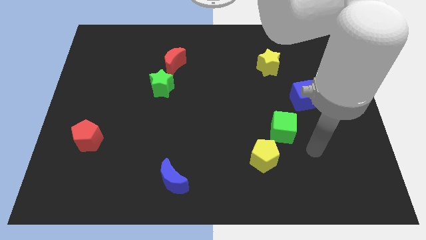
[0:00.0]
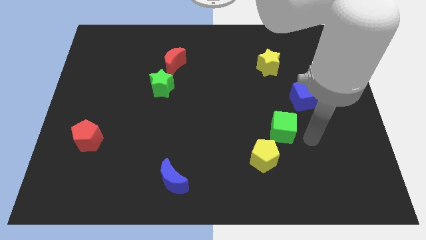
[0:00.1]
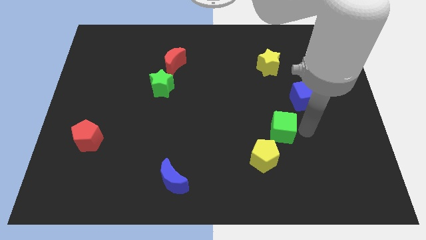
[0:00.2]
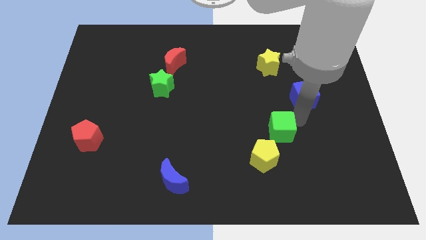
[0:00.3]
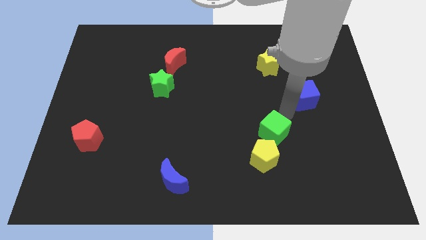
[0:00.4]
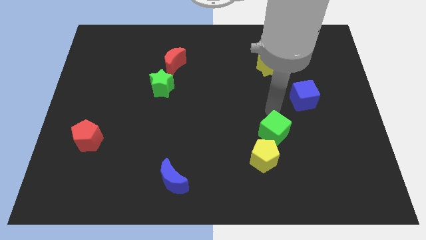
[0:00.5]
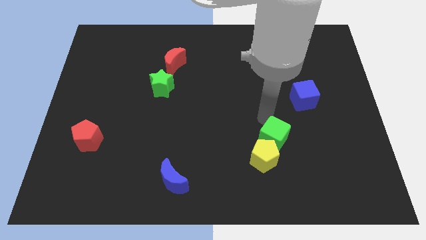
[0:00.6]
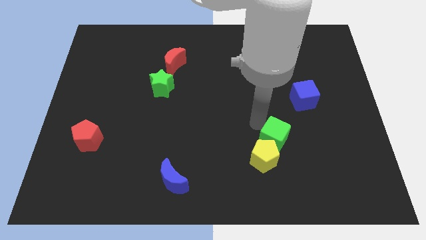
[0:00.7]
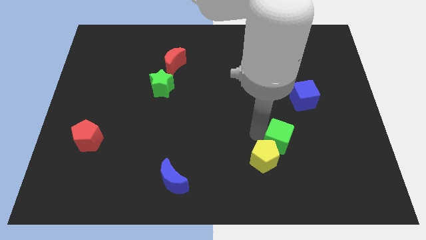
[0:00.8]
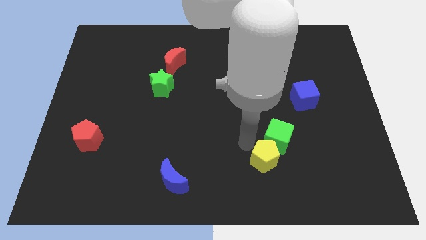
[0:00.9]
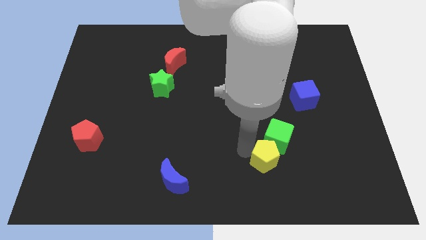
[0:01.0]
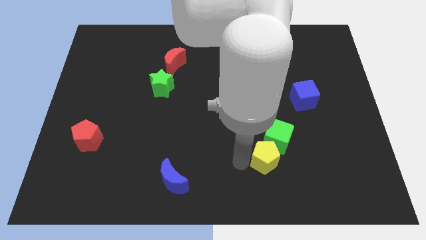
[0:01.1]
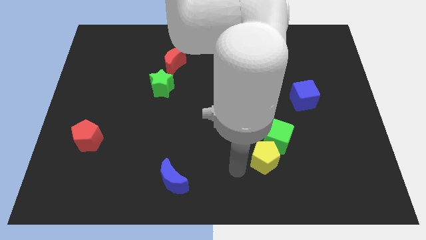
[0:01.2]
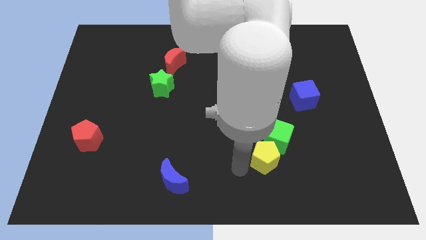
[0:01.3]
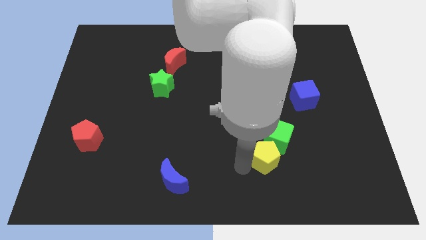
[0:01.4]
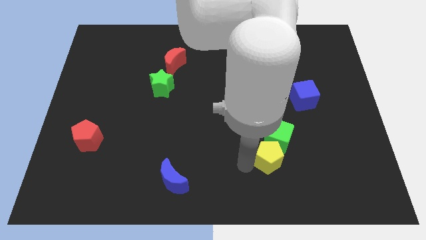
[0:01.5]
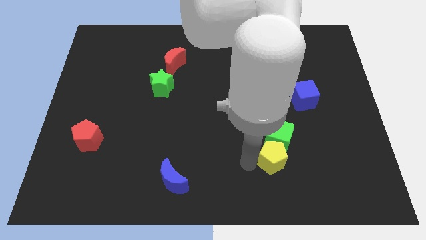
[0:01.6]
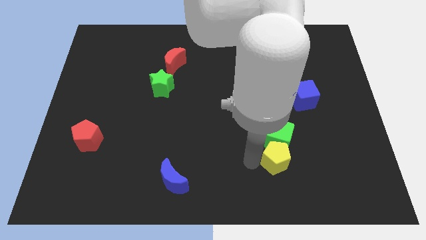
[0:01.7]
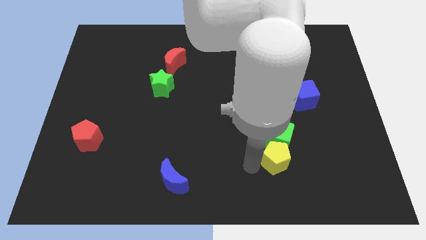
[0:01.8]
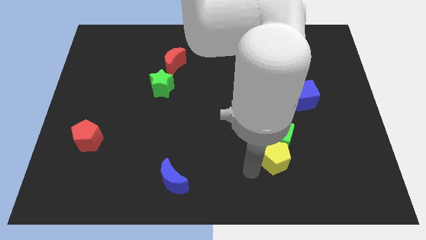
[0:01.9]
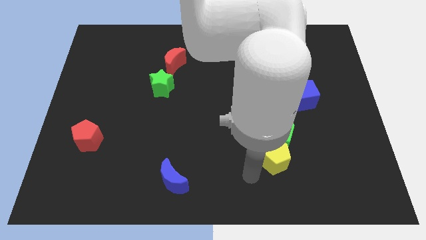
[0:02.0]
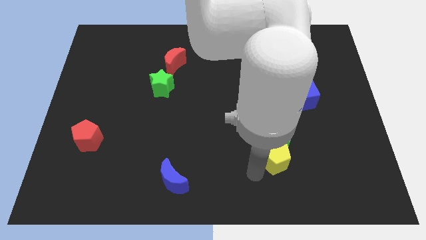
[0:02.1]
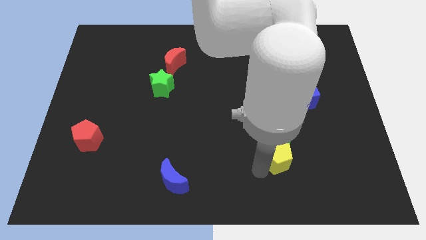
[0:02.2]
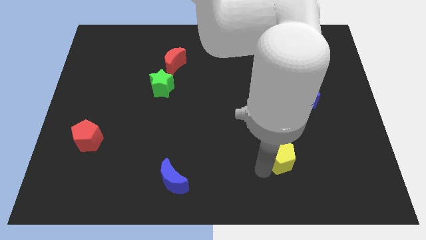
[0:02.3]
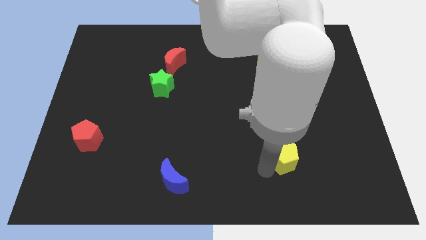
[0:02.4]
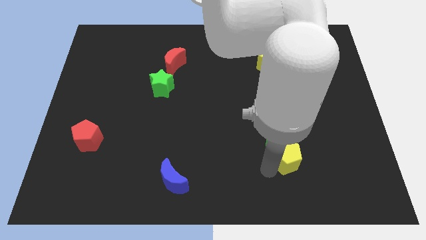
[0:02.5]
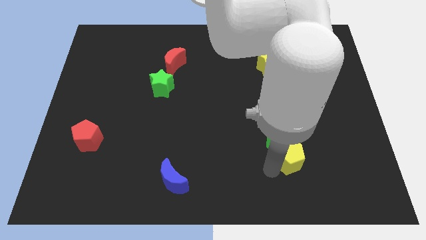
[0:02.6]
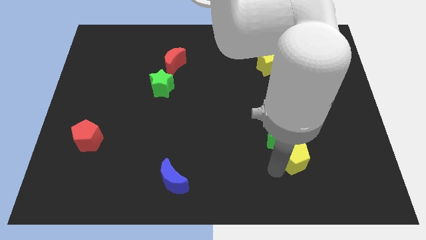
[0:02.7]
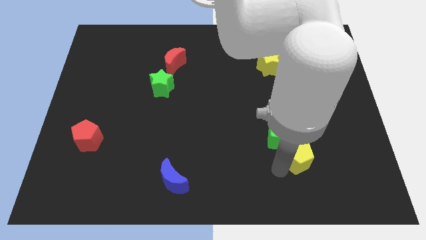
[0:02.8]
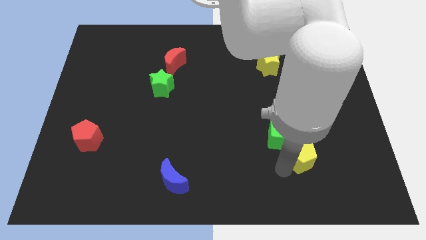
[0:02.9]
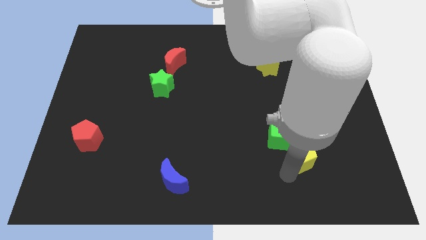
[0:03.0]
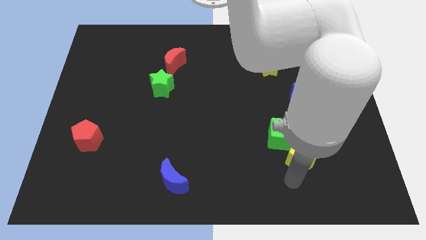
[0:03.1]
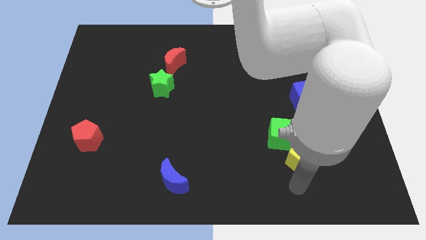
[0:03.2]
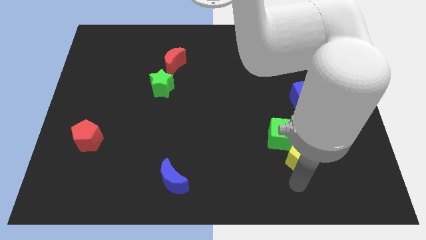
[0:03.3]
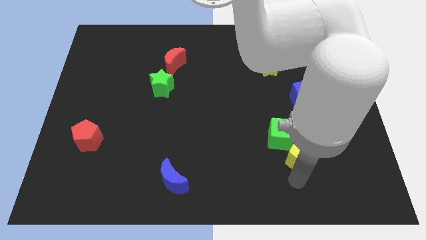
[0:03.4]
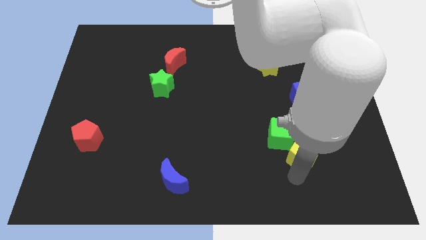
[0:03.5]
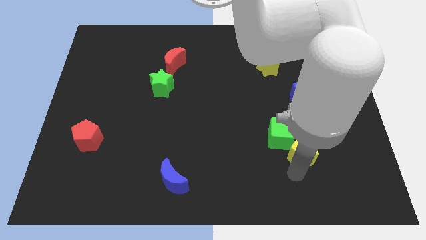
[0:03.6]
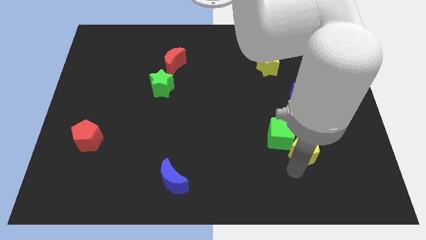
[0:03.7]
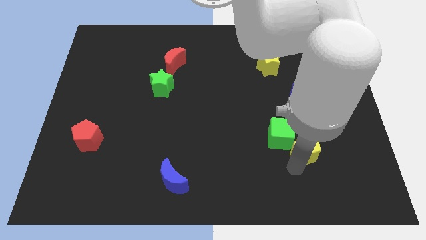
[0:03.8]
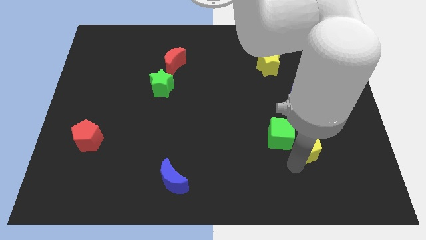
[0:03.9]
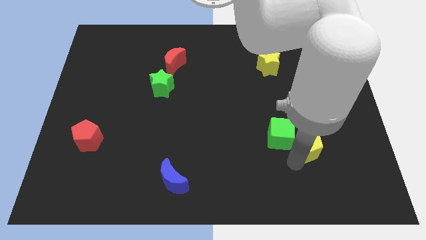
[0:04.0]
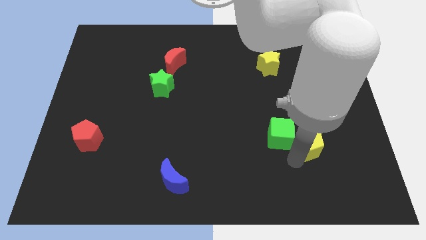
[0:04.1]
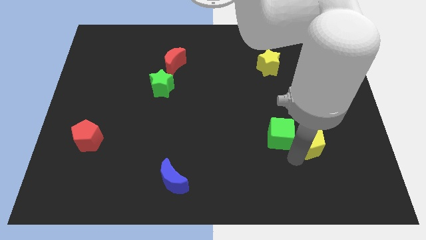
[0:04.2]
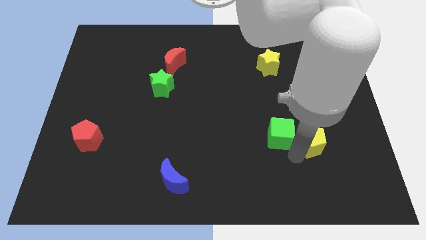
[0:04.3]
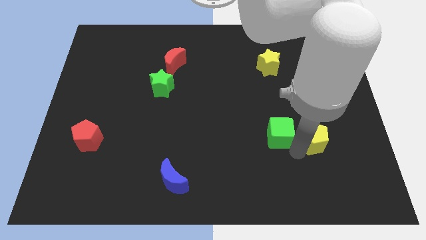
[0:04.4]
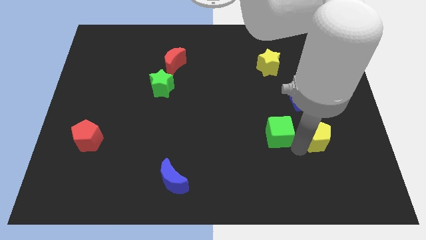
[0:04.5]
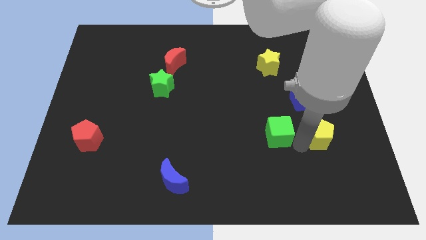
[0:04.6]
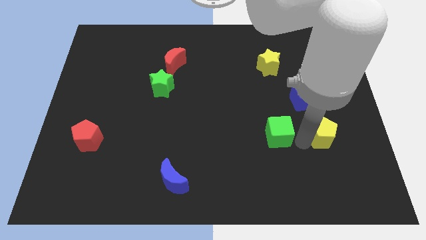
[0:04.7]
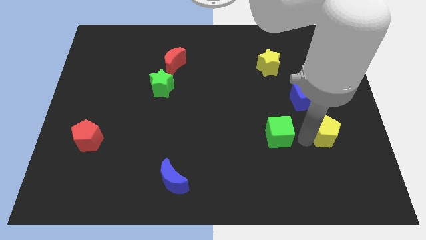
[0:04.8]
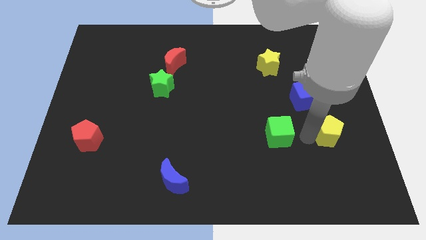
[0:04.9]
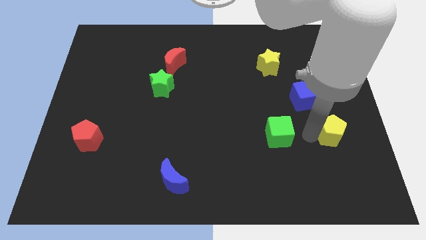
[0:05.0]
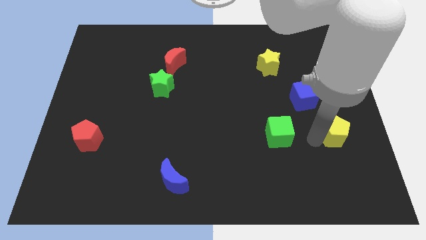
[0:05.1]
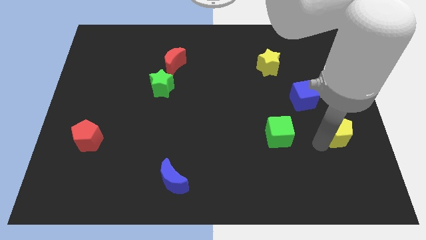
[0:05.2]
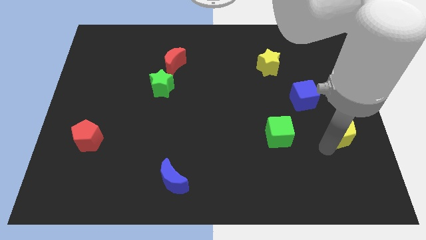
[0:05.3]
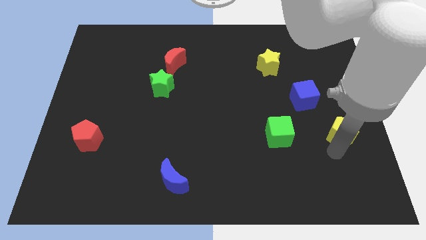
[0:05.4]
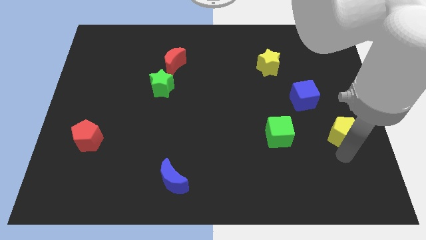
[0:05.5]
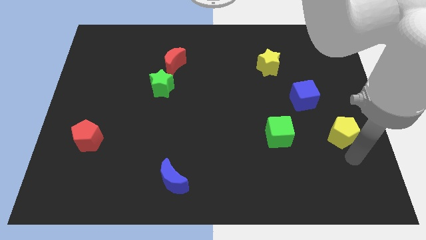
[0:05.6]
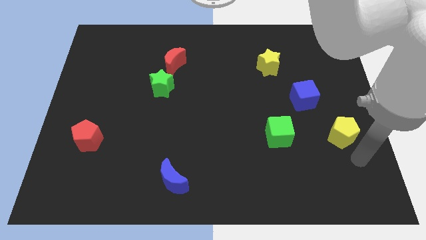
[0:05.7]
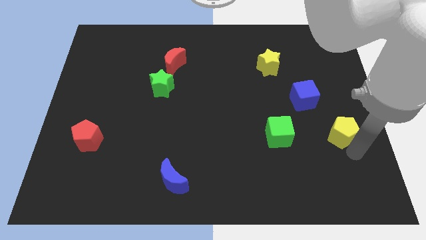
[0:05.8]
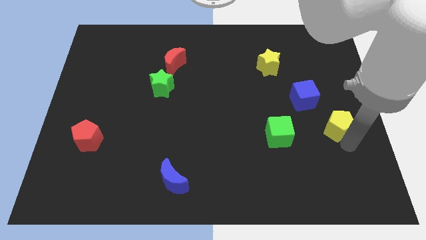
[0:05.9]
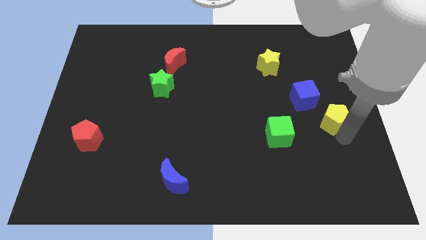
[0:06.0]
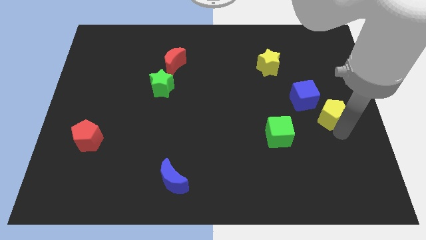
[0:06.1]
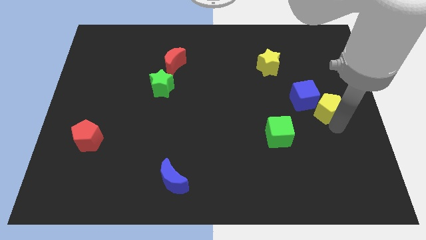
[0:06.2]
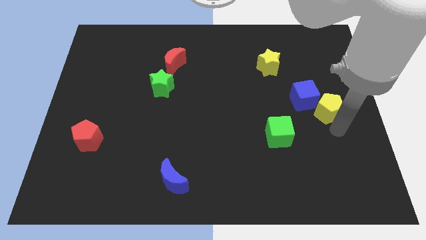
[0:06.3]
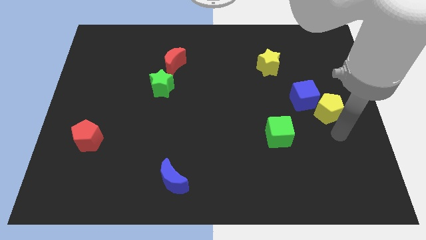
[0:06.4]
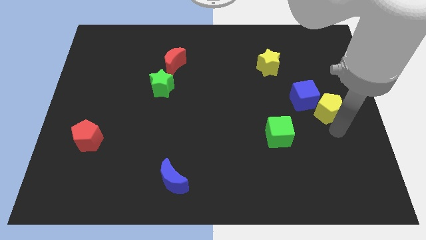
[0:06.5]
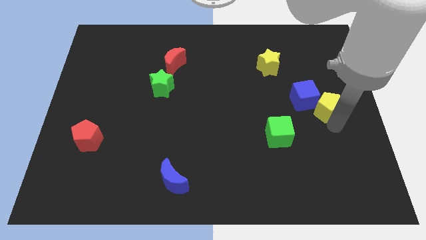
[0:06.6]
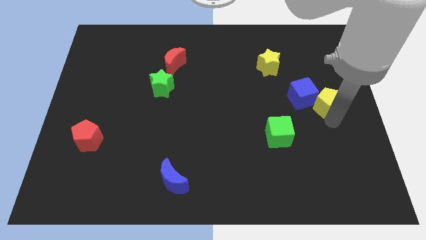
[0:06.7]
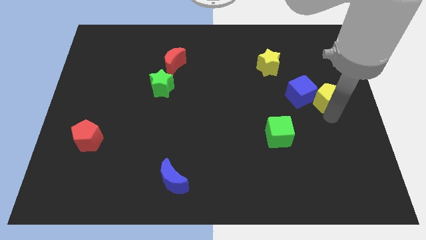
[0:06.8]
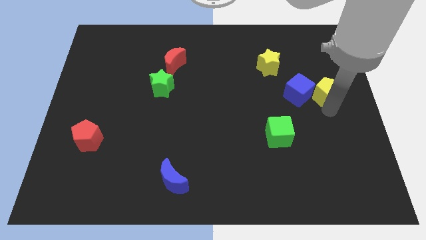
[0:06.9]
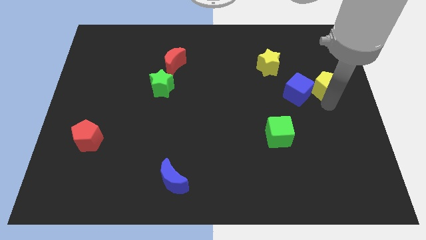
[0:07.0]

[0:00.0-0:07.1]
slide the yellow pentagon to the top right side of the blue cube
